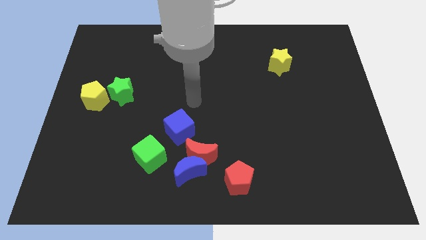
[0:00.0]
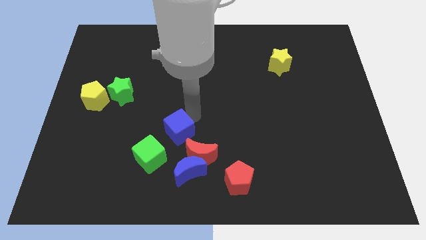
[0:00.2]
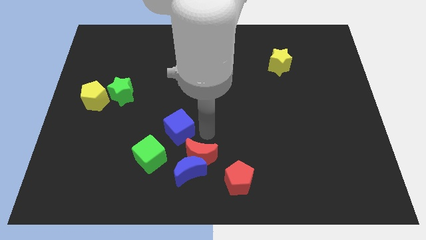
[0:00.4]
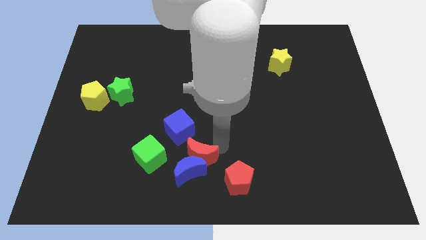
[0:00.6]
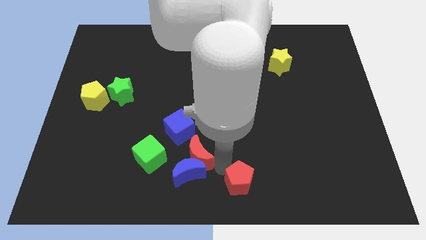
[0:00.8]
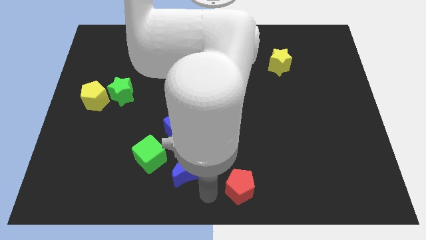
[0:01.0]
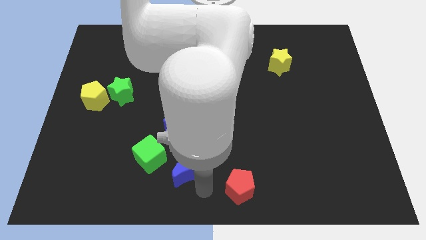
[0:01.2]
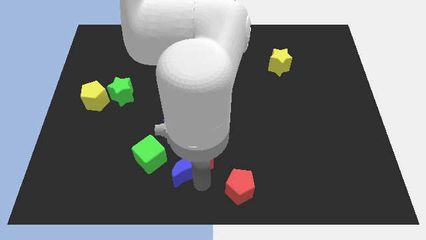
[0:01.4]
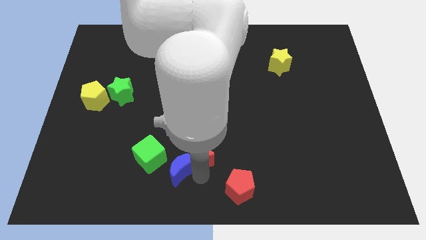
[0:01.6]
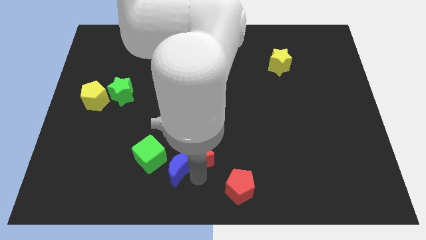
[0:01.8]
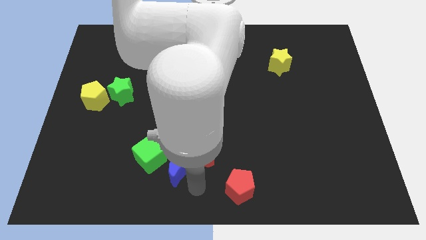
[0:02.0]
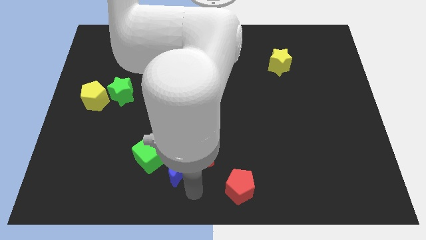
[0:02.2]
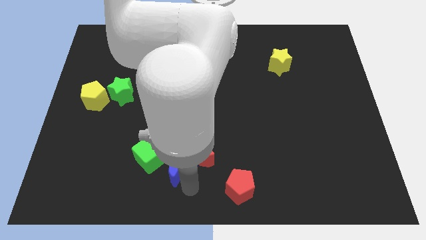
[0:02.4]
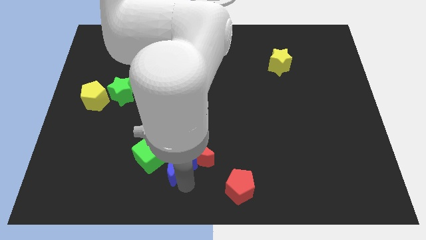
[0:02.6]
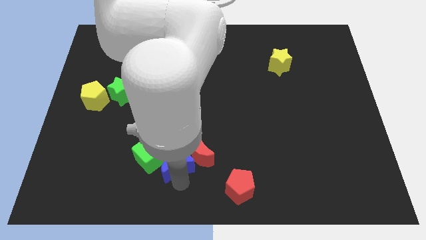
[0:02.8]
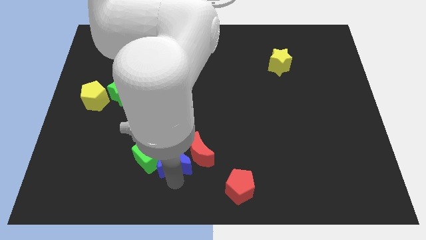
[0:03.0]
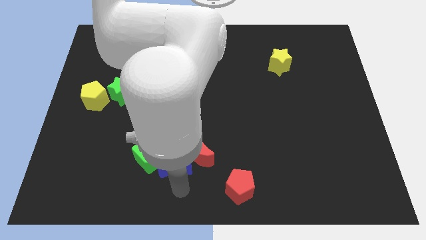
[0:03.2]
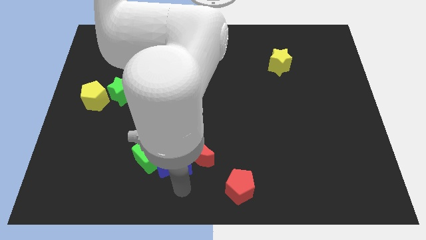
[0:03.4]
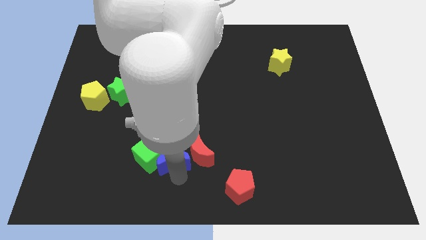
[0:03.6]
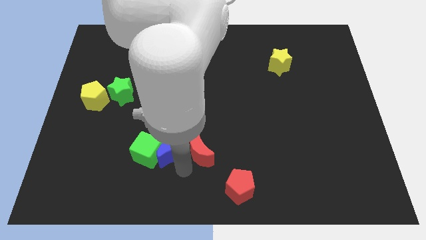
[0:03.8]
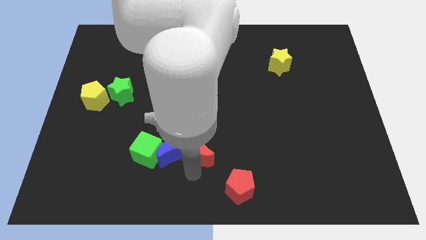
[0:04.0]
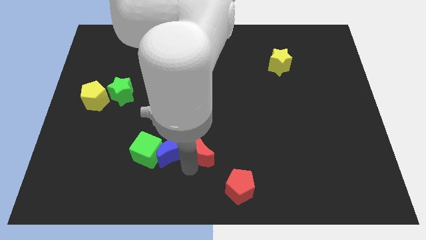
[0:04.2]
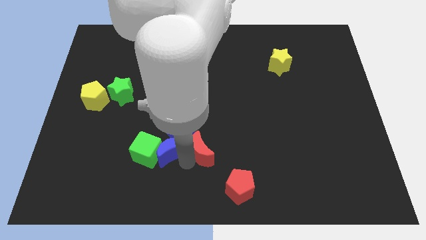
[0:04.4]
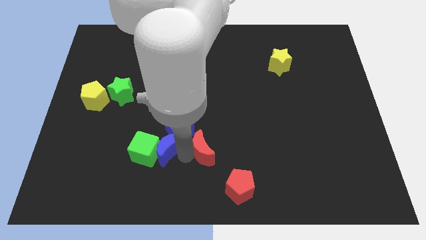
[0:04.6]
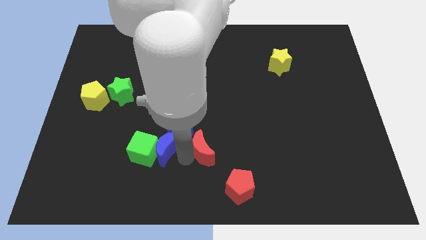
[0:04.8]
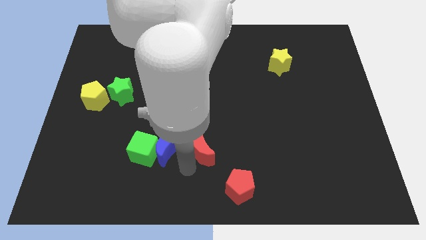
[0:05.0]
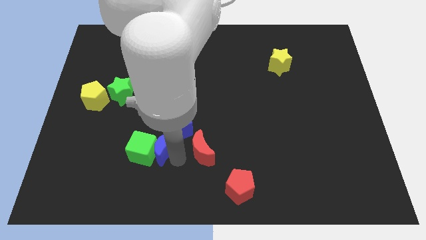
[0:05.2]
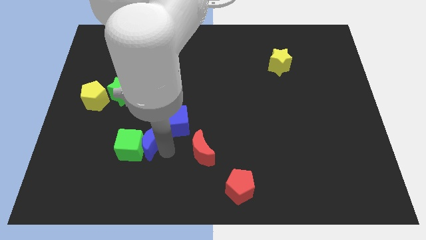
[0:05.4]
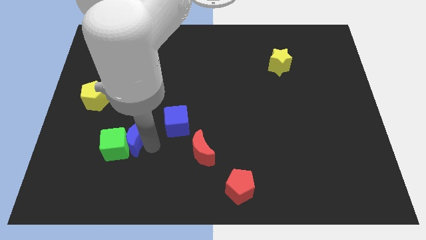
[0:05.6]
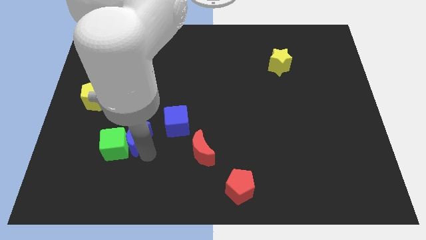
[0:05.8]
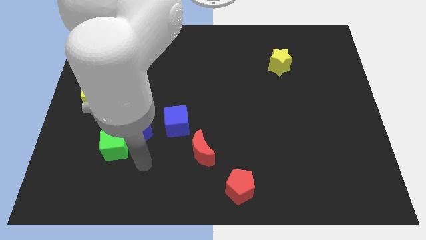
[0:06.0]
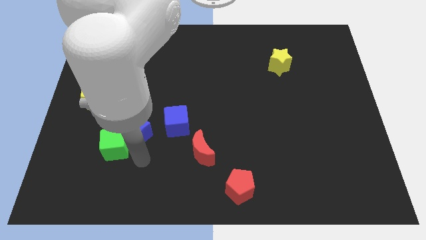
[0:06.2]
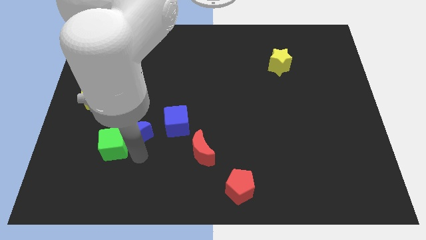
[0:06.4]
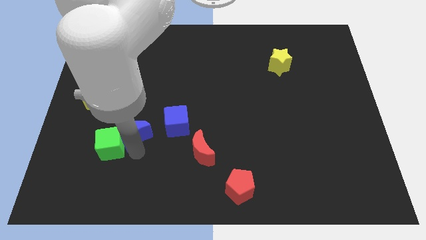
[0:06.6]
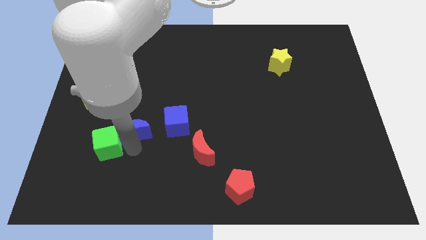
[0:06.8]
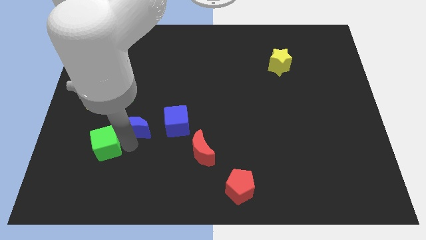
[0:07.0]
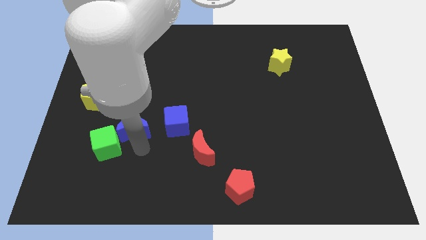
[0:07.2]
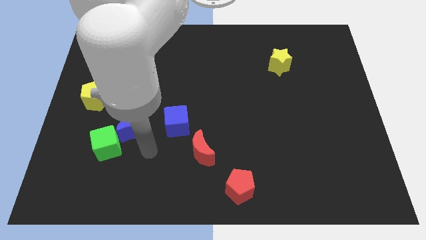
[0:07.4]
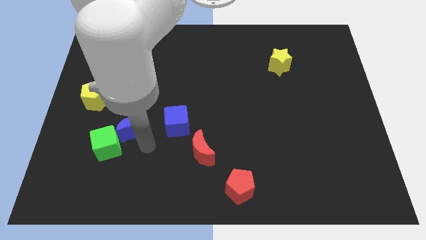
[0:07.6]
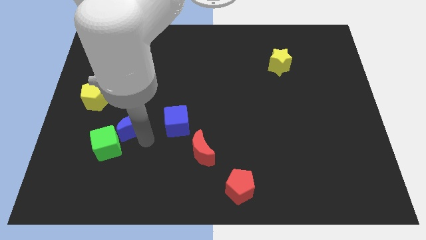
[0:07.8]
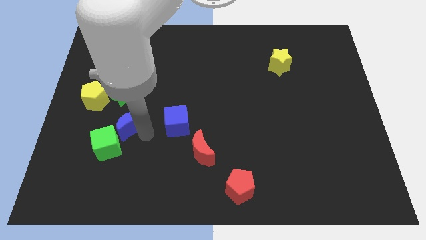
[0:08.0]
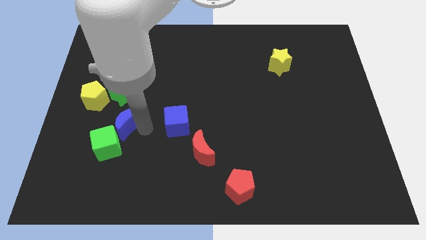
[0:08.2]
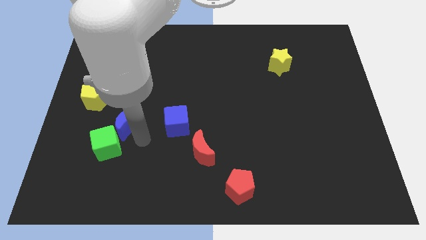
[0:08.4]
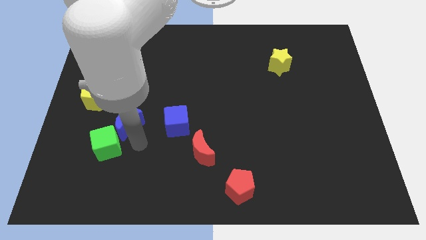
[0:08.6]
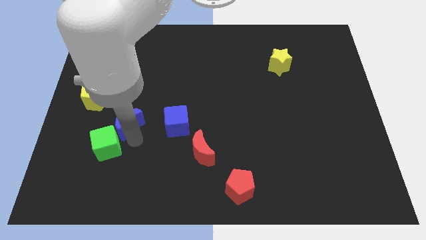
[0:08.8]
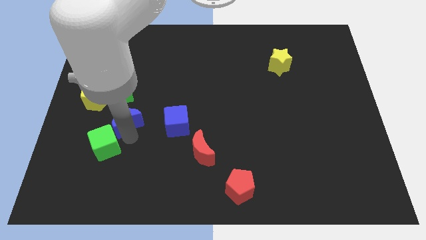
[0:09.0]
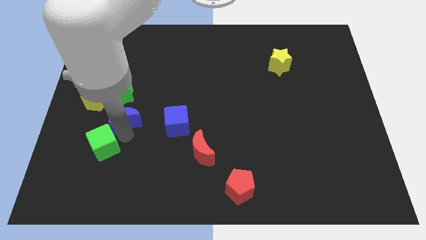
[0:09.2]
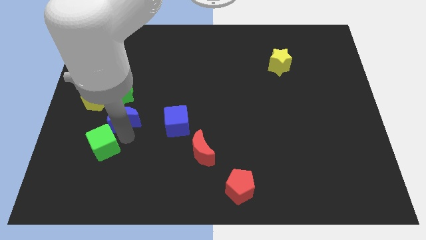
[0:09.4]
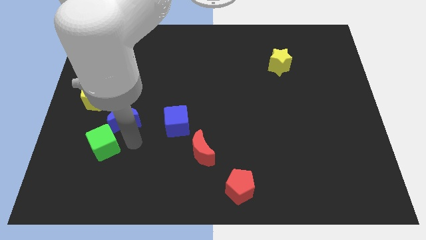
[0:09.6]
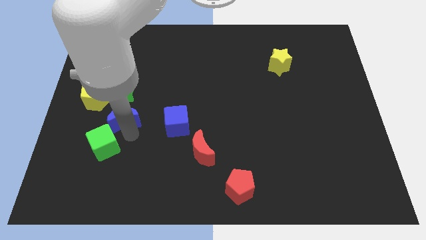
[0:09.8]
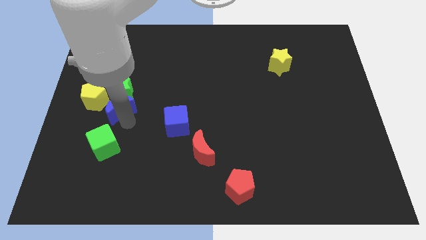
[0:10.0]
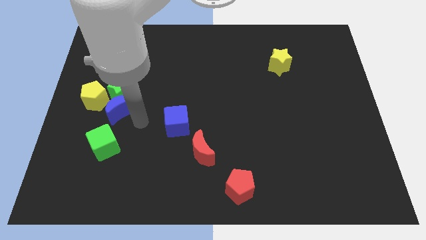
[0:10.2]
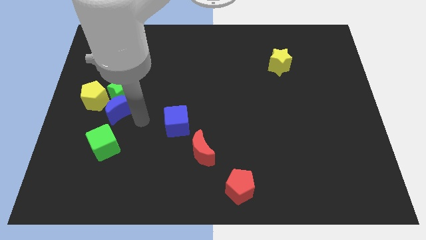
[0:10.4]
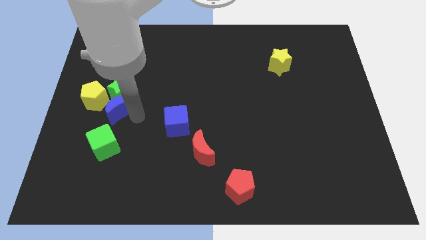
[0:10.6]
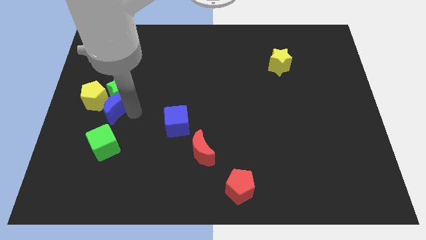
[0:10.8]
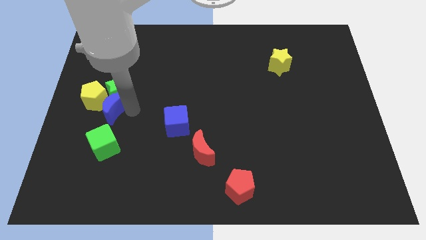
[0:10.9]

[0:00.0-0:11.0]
put the blue moon next to the yellow pentagon

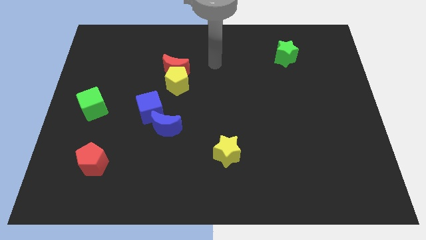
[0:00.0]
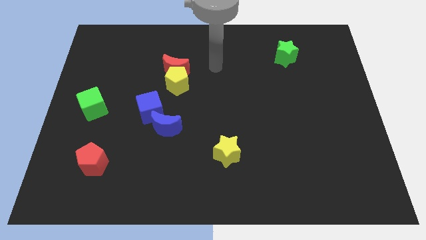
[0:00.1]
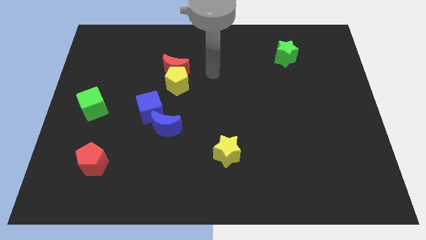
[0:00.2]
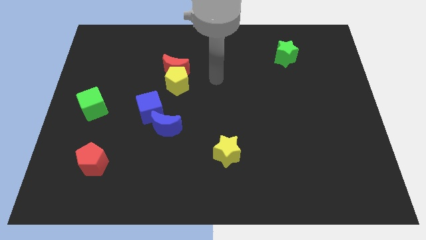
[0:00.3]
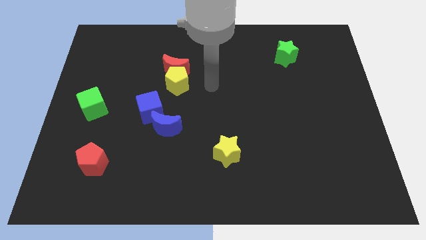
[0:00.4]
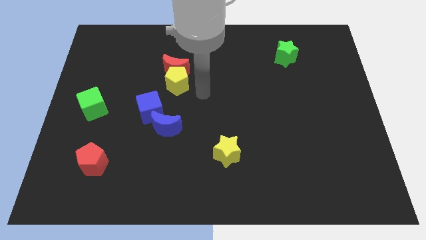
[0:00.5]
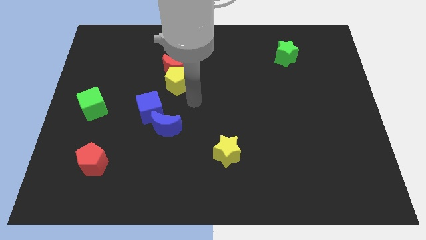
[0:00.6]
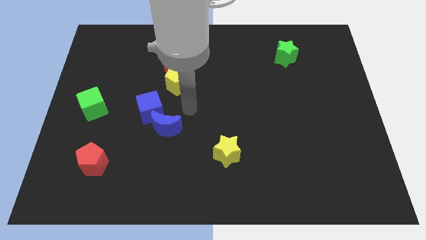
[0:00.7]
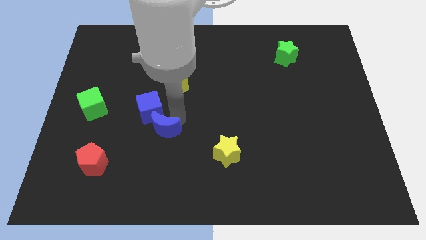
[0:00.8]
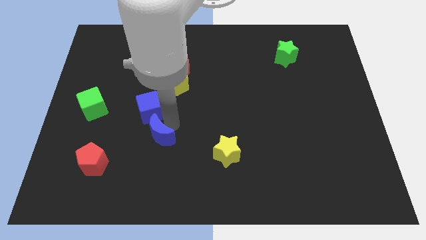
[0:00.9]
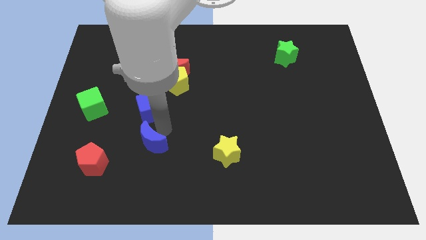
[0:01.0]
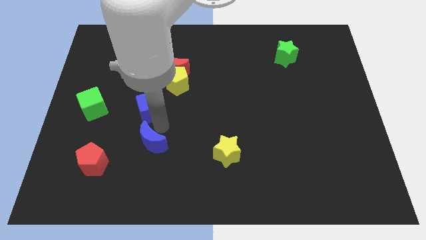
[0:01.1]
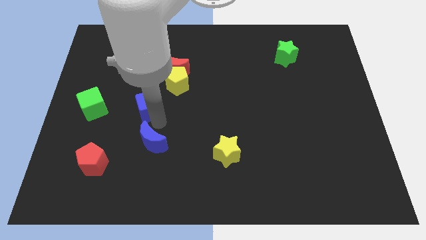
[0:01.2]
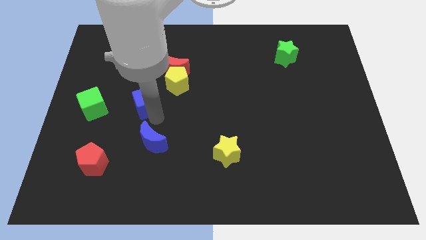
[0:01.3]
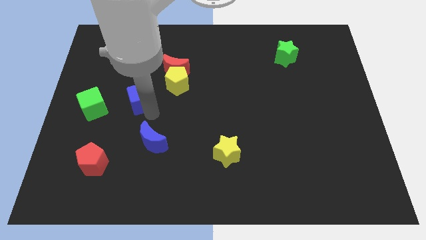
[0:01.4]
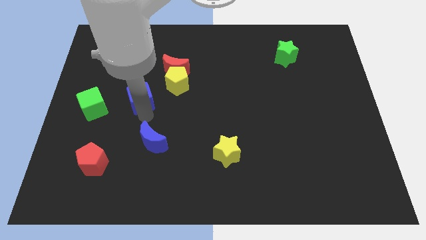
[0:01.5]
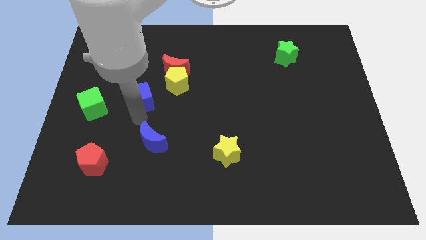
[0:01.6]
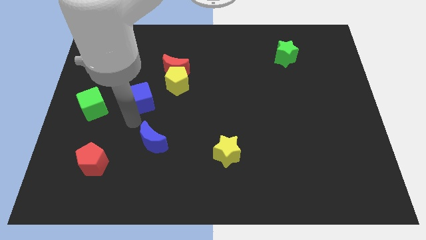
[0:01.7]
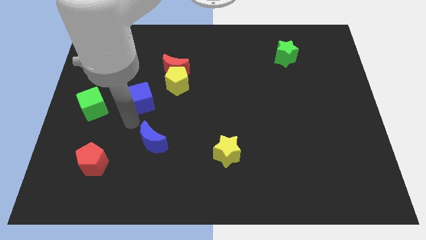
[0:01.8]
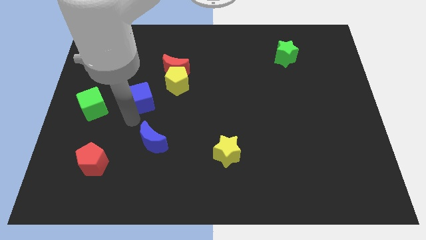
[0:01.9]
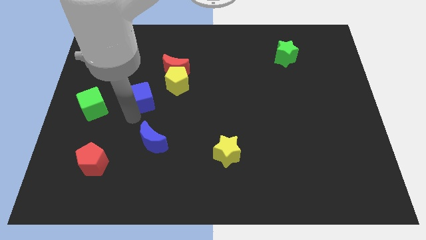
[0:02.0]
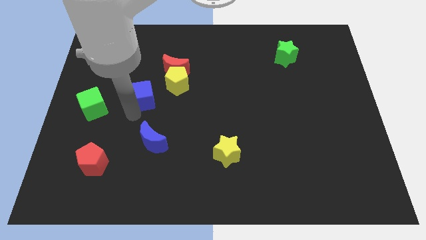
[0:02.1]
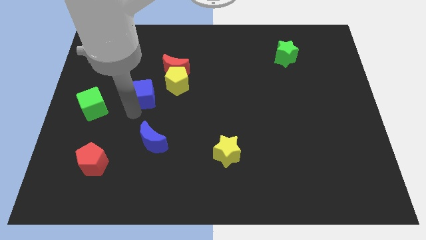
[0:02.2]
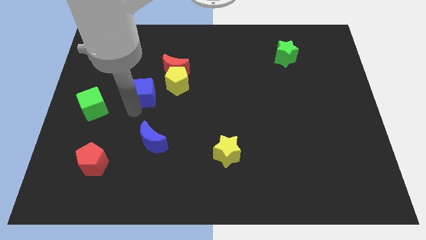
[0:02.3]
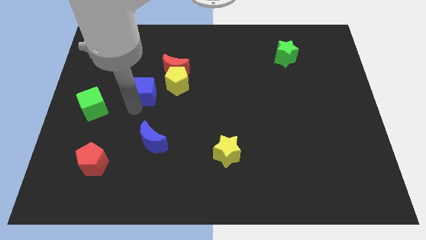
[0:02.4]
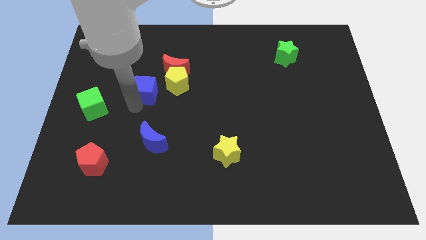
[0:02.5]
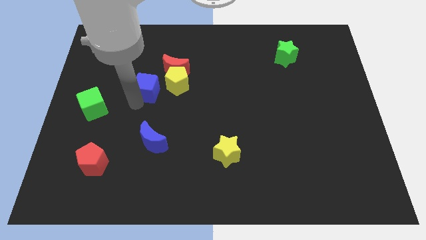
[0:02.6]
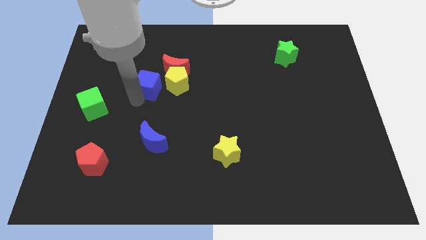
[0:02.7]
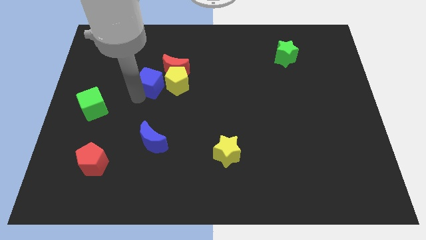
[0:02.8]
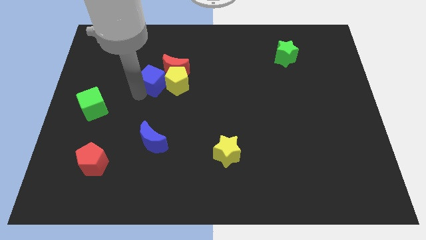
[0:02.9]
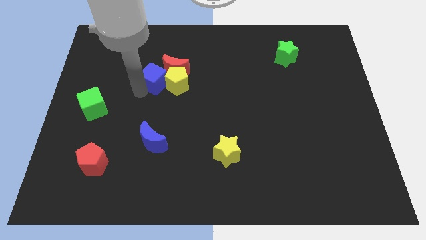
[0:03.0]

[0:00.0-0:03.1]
put the blue cube towards the red moon
